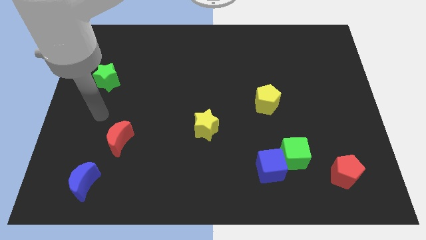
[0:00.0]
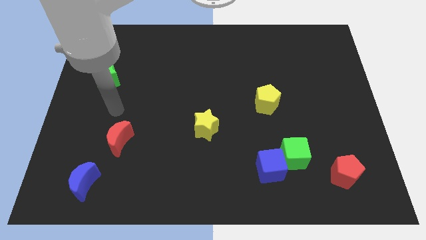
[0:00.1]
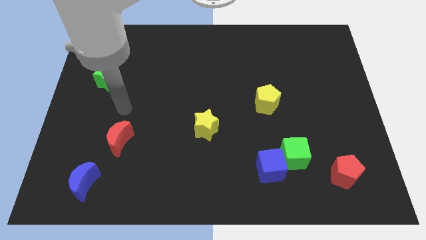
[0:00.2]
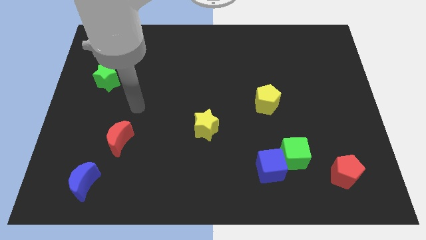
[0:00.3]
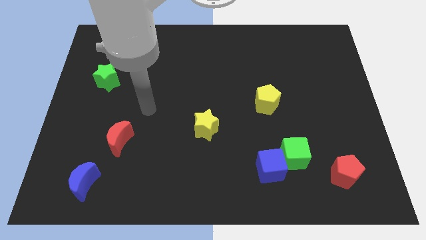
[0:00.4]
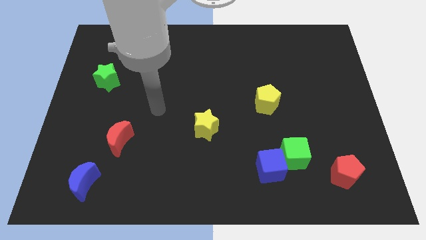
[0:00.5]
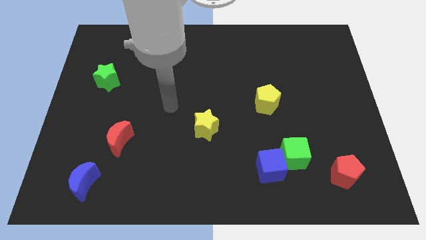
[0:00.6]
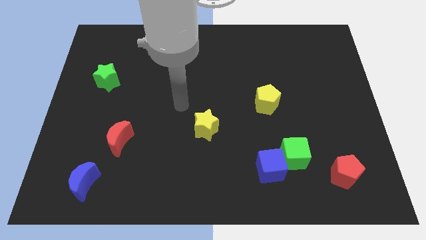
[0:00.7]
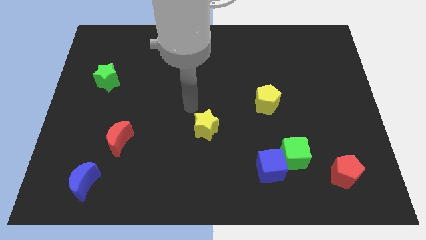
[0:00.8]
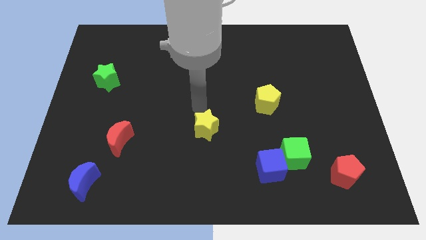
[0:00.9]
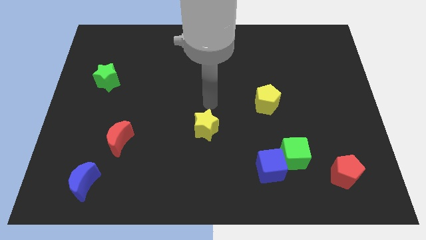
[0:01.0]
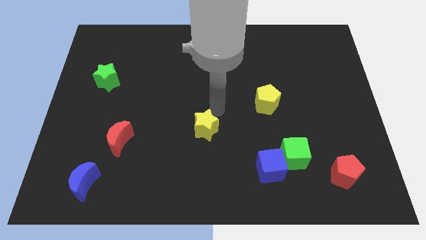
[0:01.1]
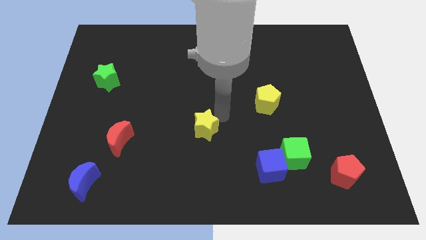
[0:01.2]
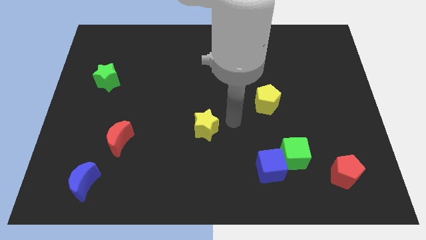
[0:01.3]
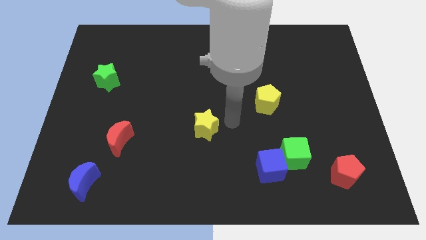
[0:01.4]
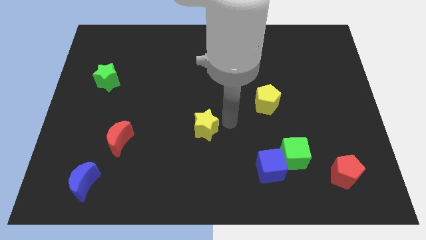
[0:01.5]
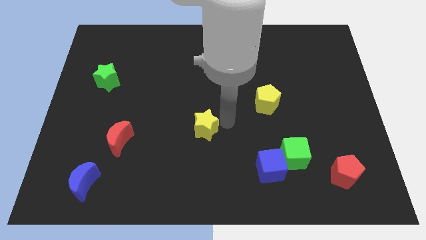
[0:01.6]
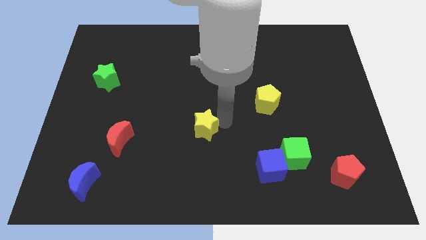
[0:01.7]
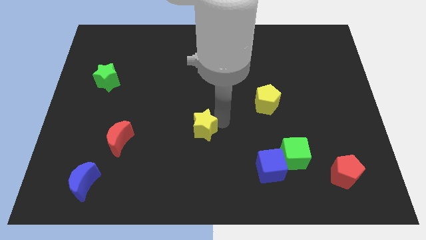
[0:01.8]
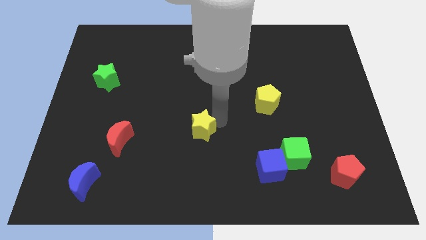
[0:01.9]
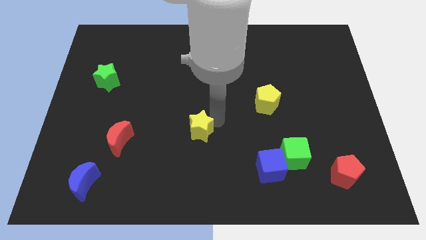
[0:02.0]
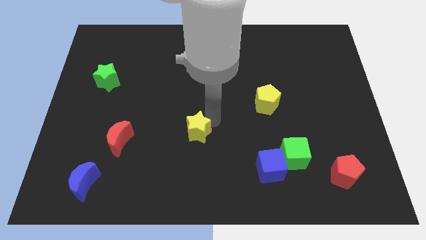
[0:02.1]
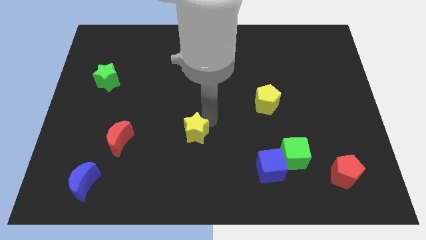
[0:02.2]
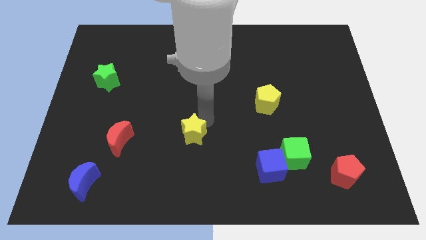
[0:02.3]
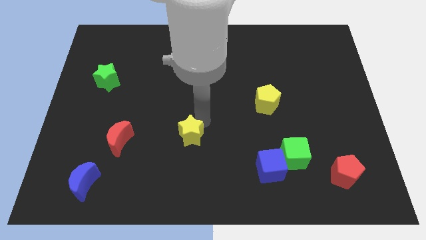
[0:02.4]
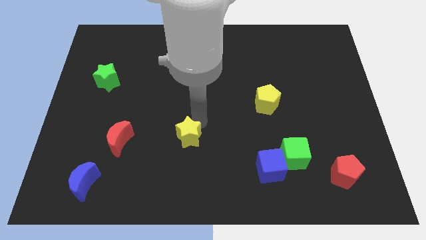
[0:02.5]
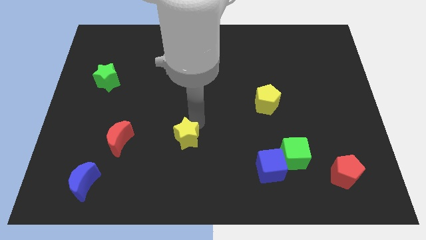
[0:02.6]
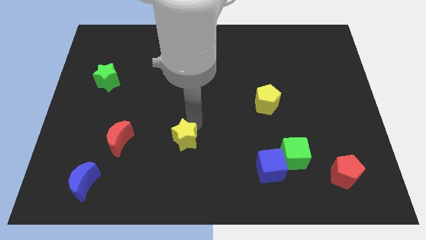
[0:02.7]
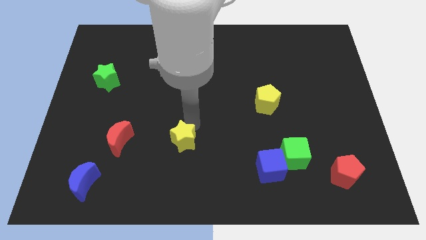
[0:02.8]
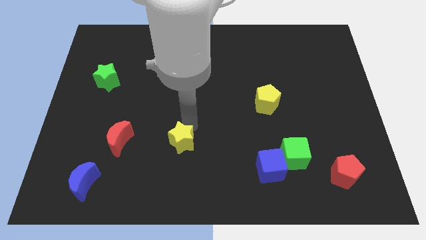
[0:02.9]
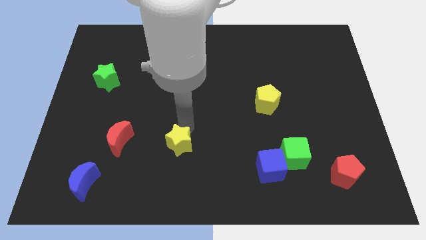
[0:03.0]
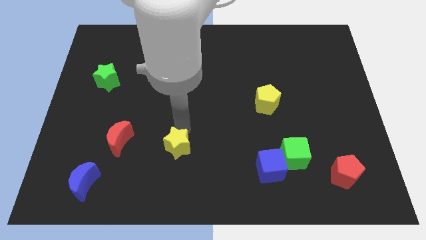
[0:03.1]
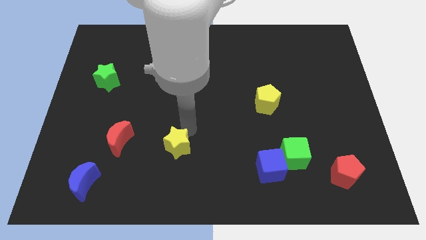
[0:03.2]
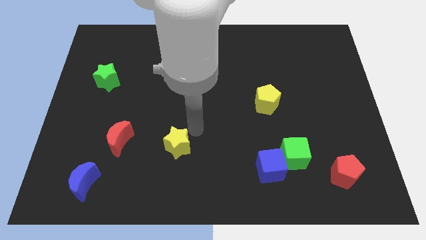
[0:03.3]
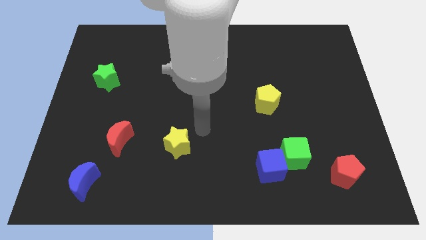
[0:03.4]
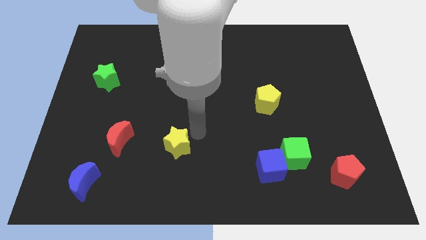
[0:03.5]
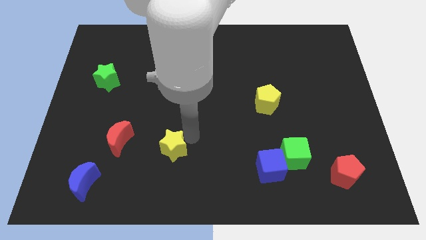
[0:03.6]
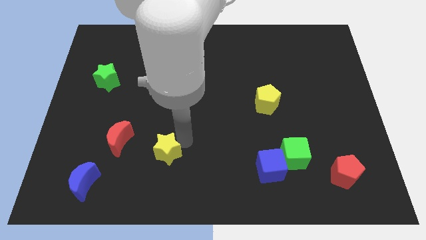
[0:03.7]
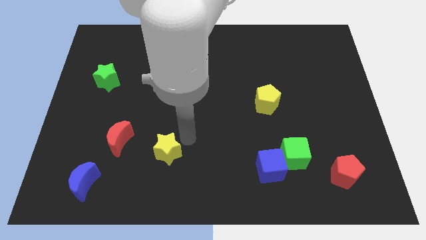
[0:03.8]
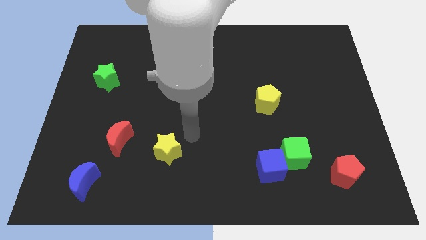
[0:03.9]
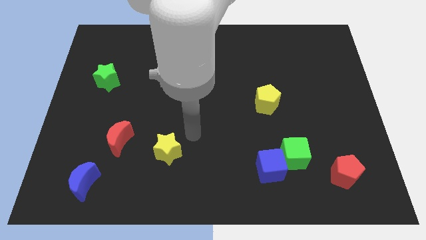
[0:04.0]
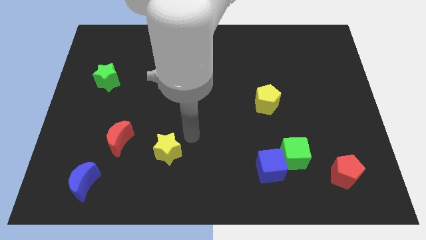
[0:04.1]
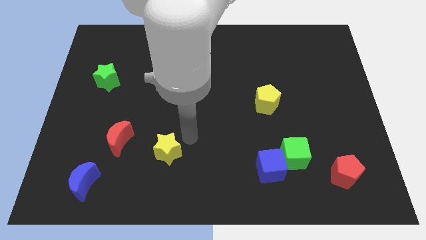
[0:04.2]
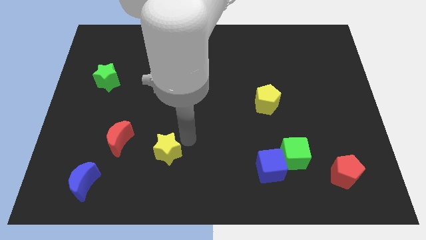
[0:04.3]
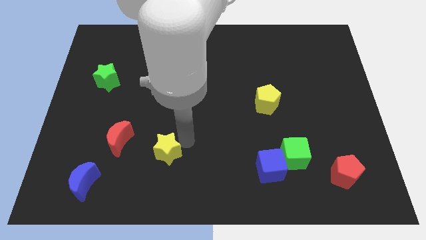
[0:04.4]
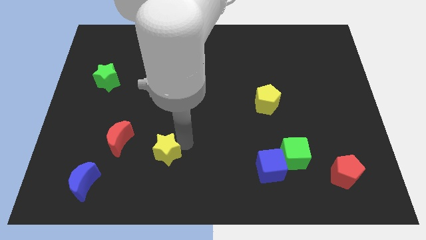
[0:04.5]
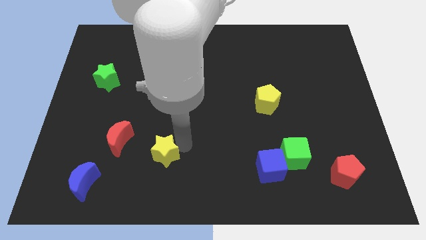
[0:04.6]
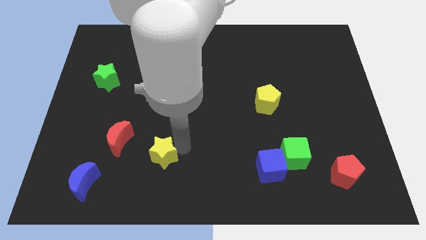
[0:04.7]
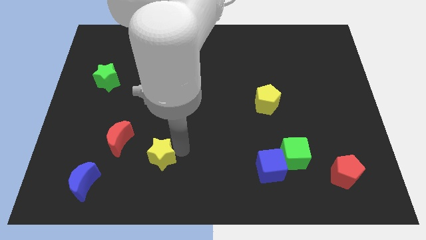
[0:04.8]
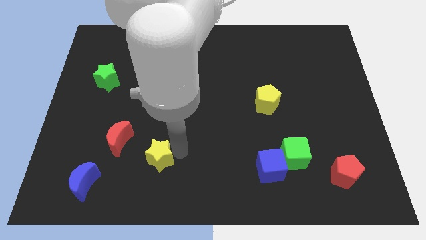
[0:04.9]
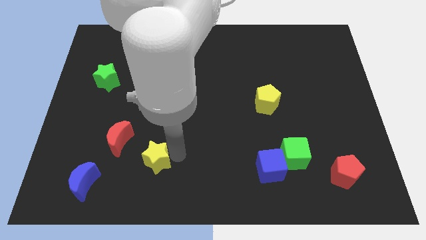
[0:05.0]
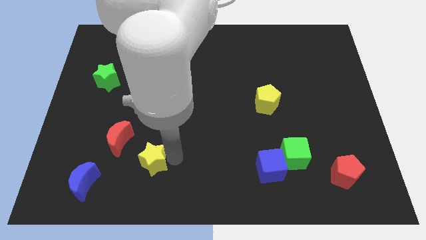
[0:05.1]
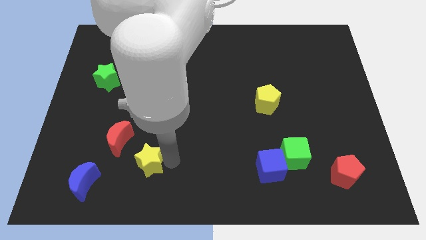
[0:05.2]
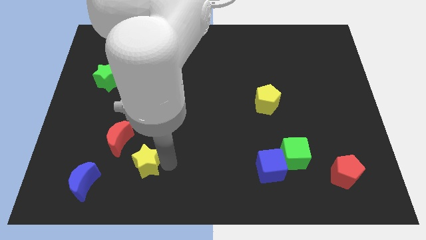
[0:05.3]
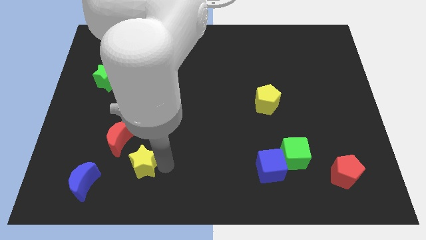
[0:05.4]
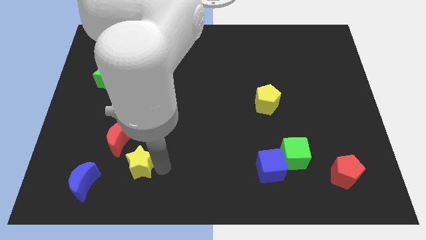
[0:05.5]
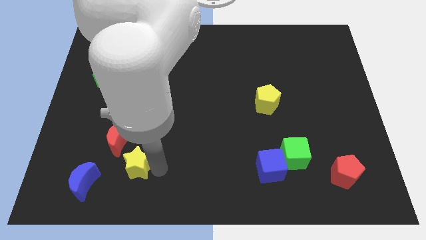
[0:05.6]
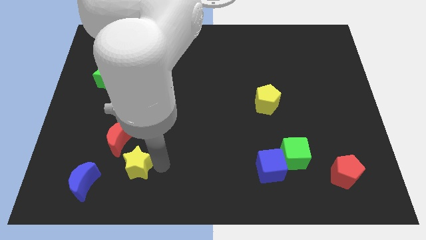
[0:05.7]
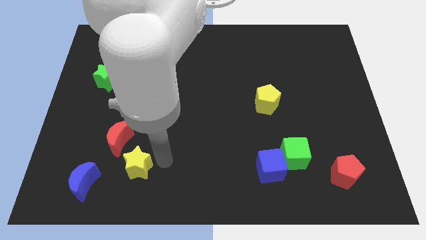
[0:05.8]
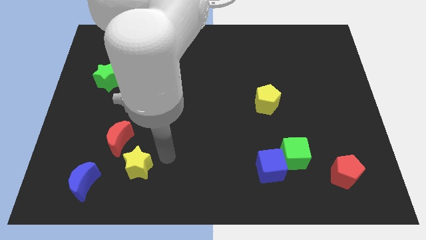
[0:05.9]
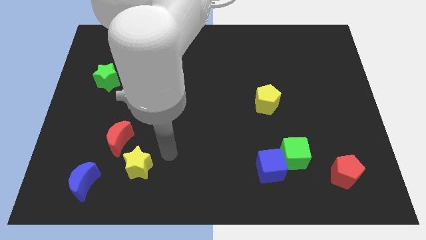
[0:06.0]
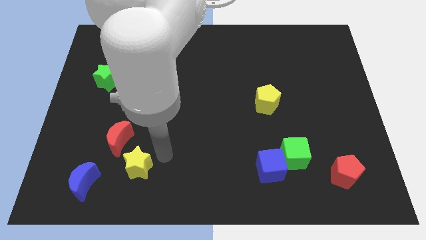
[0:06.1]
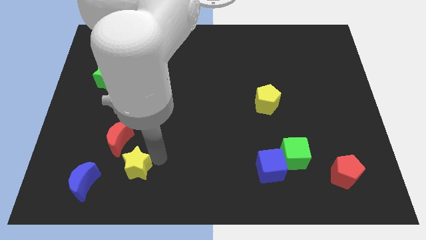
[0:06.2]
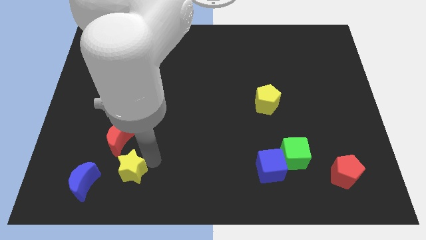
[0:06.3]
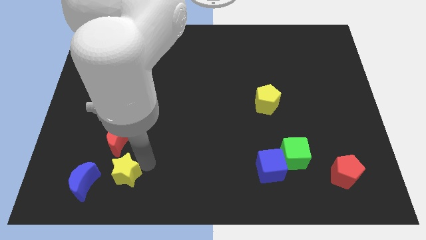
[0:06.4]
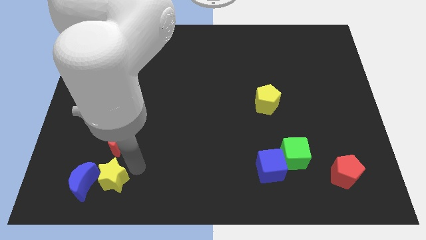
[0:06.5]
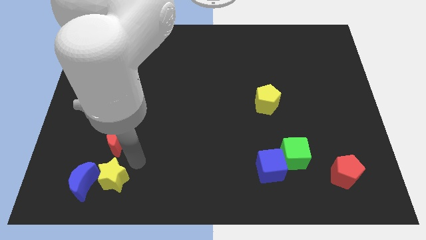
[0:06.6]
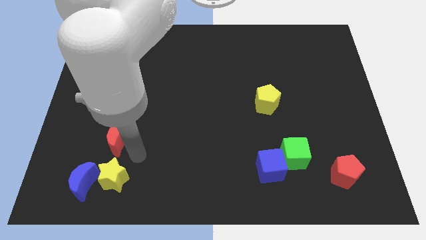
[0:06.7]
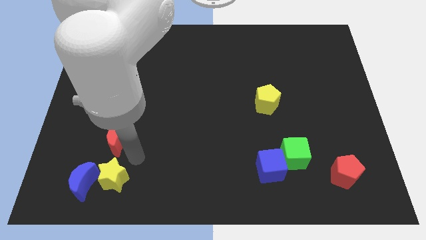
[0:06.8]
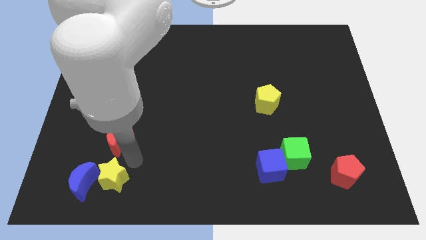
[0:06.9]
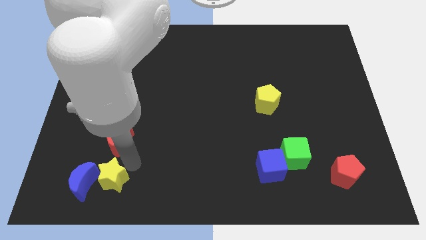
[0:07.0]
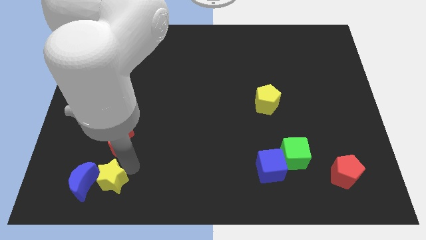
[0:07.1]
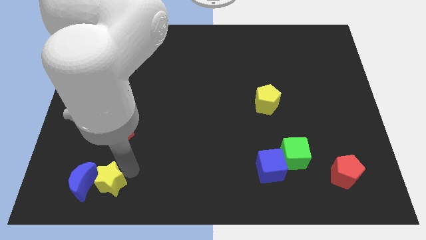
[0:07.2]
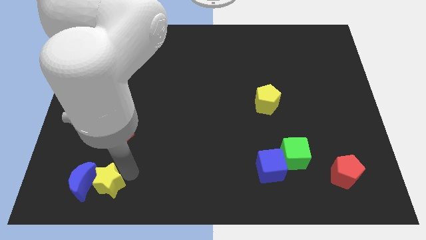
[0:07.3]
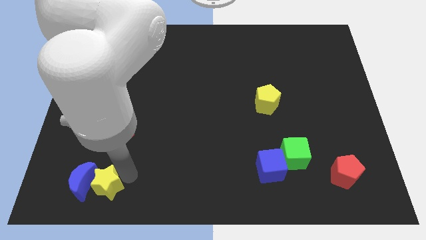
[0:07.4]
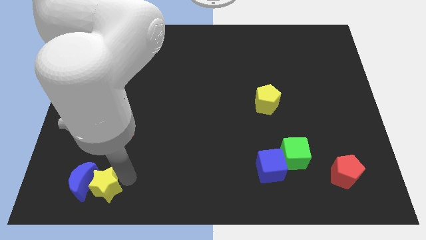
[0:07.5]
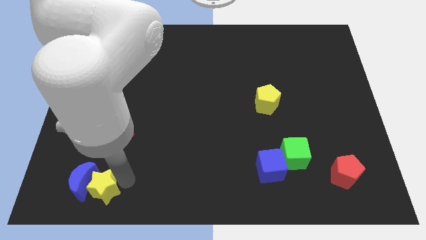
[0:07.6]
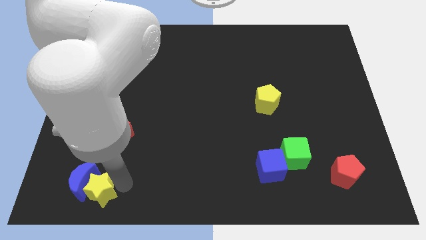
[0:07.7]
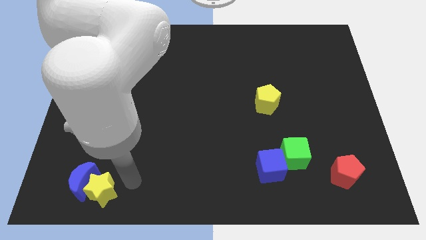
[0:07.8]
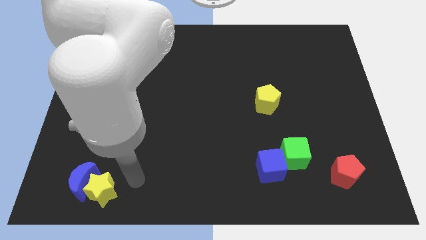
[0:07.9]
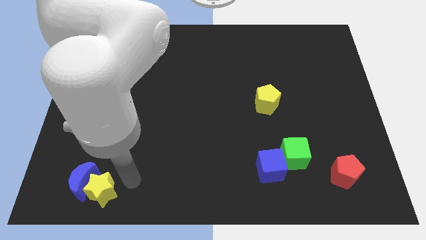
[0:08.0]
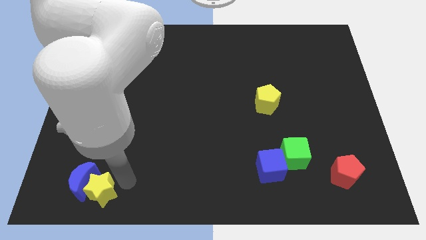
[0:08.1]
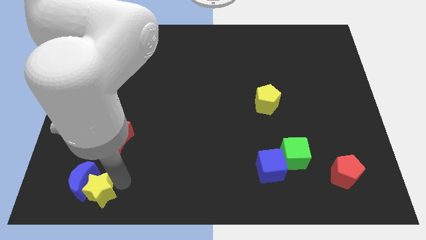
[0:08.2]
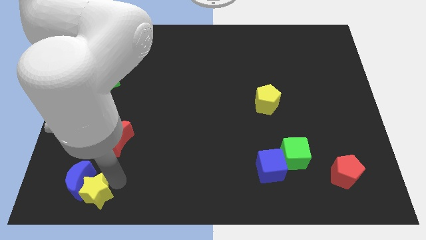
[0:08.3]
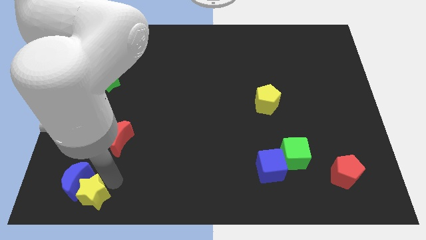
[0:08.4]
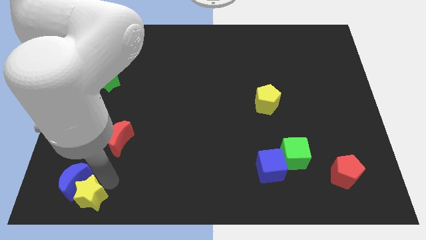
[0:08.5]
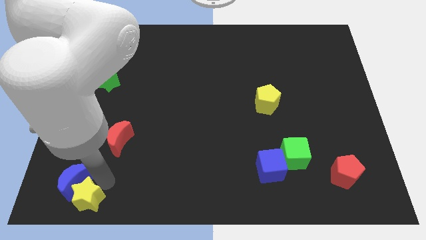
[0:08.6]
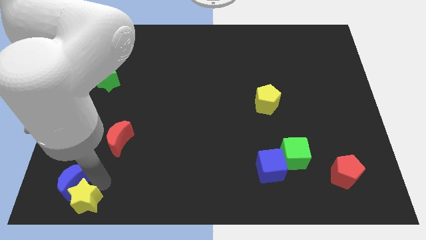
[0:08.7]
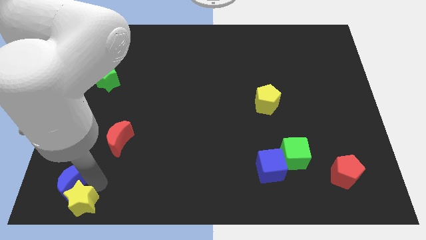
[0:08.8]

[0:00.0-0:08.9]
slide the yellow star to the bottom left of the board
